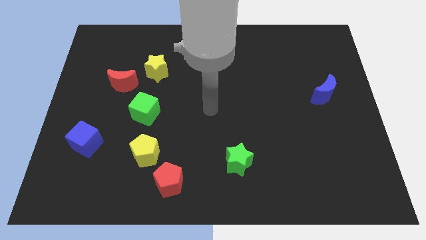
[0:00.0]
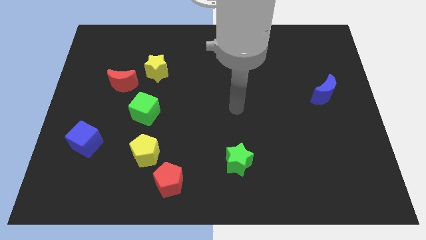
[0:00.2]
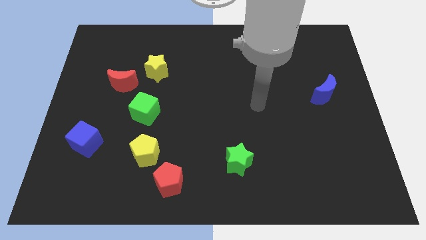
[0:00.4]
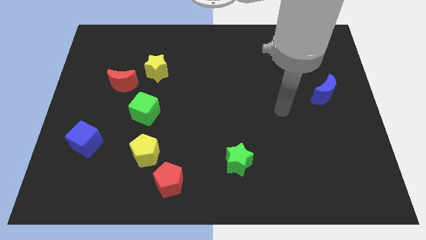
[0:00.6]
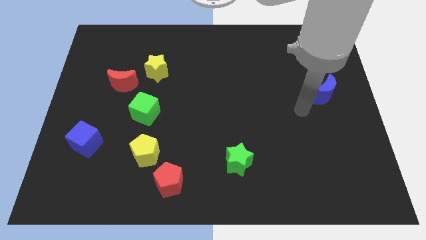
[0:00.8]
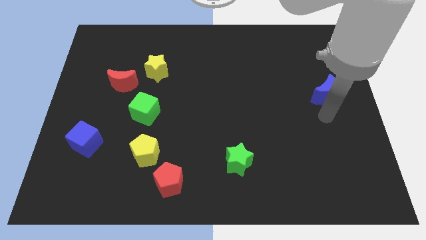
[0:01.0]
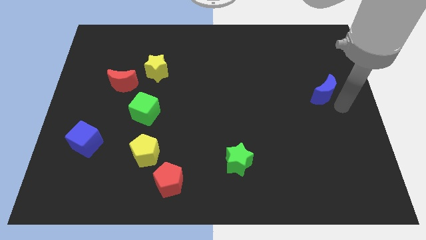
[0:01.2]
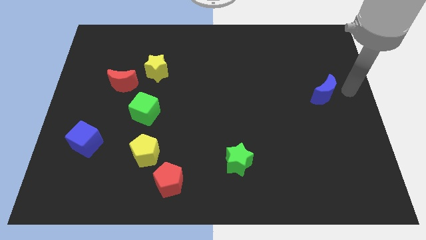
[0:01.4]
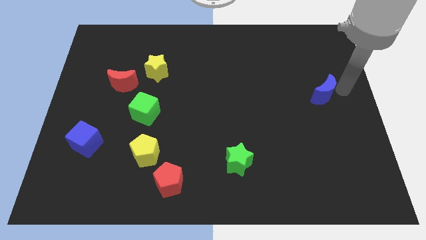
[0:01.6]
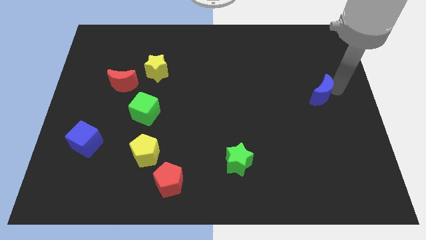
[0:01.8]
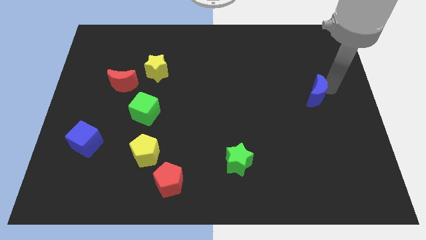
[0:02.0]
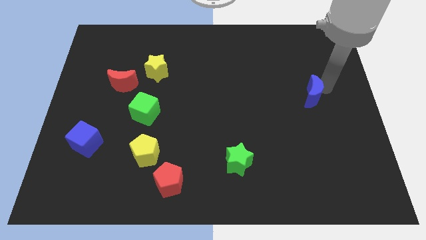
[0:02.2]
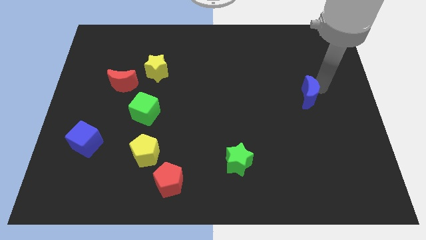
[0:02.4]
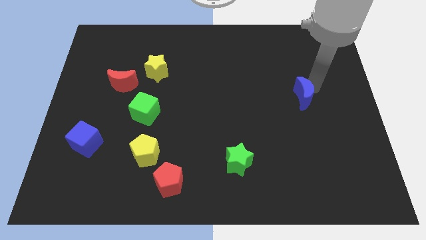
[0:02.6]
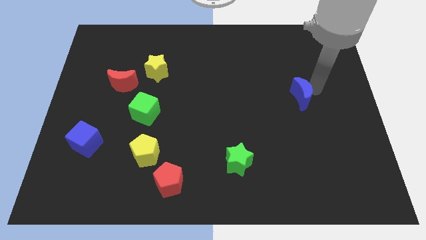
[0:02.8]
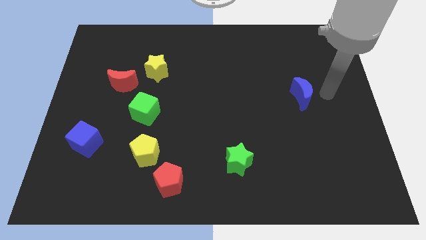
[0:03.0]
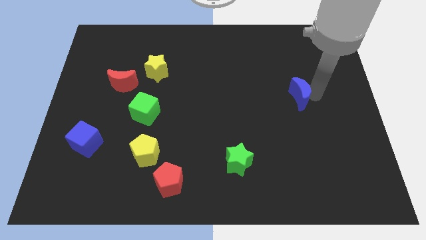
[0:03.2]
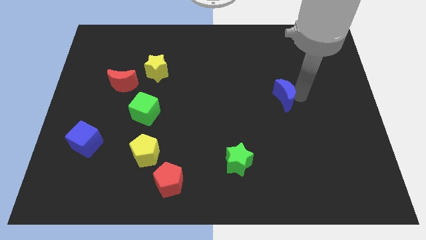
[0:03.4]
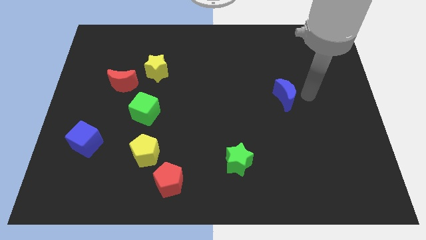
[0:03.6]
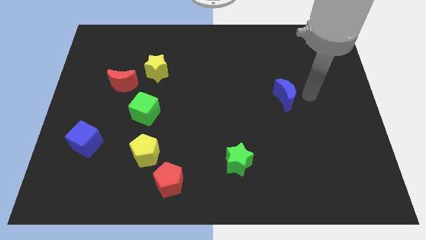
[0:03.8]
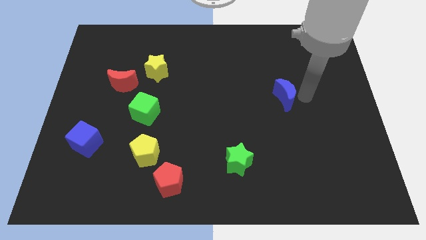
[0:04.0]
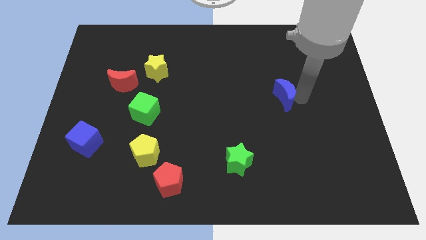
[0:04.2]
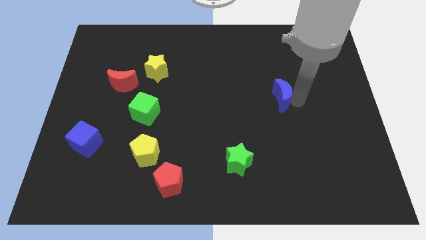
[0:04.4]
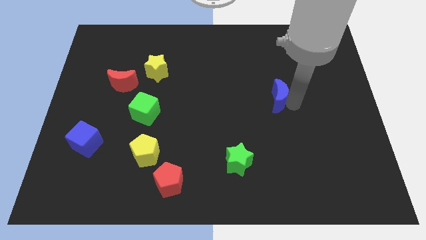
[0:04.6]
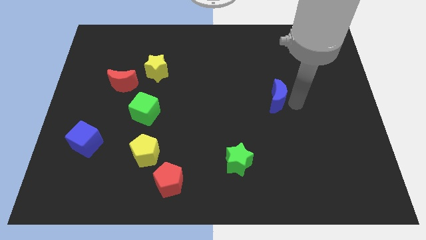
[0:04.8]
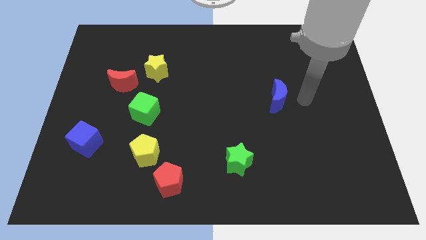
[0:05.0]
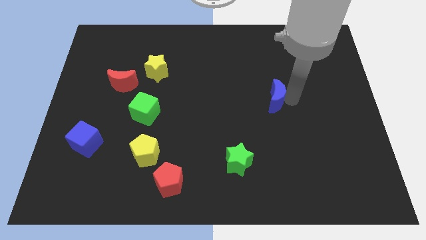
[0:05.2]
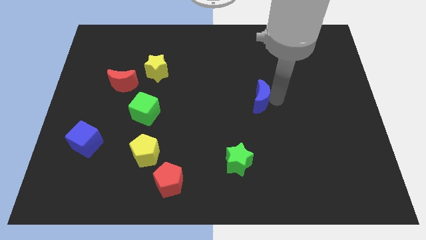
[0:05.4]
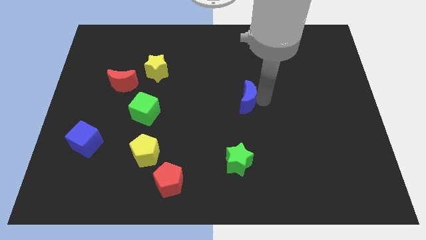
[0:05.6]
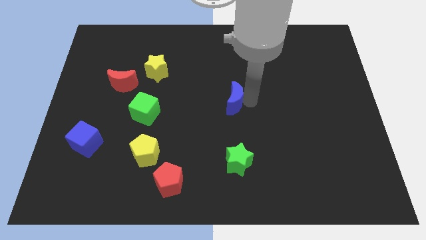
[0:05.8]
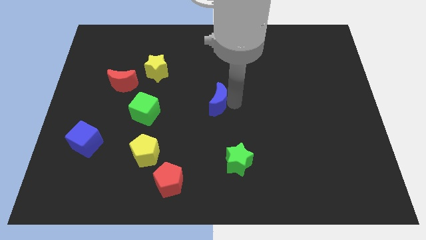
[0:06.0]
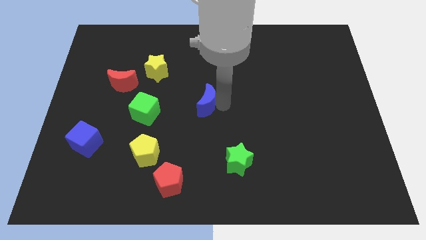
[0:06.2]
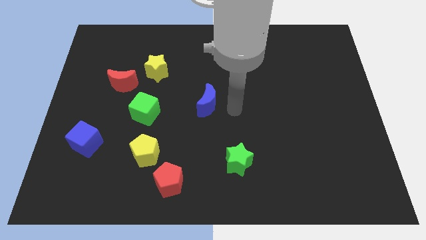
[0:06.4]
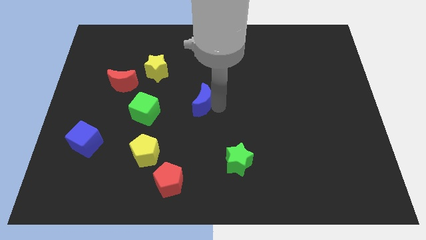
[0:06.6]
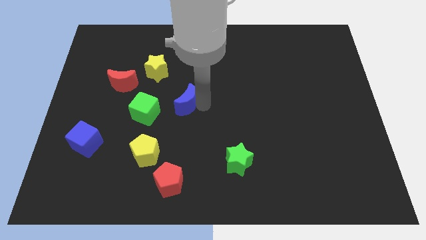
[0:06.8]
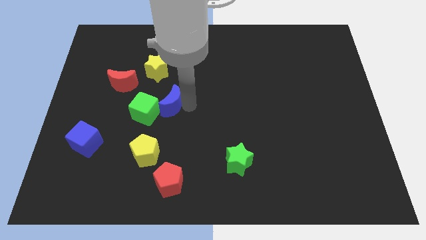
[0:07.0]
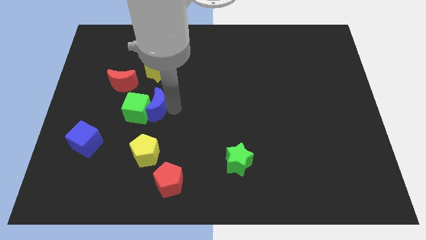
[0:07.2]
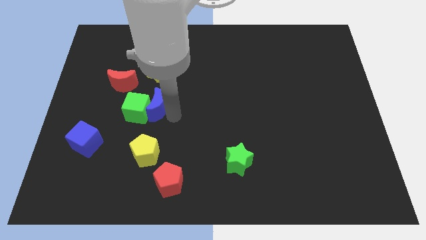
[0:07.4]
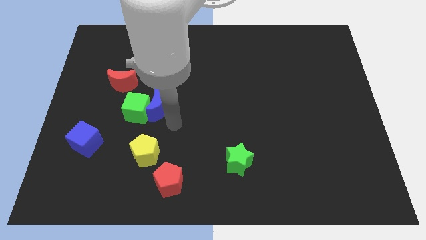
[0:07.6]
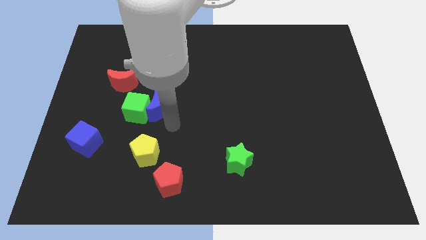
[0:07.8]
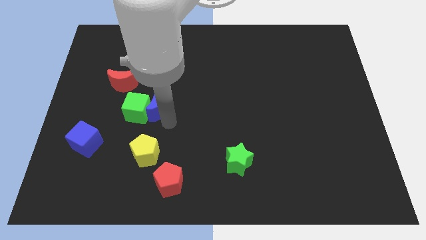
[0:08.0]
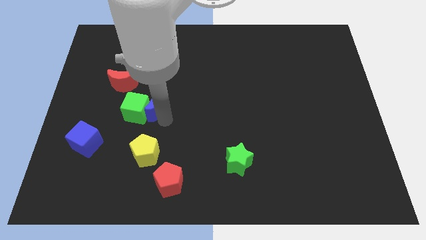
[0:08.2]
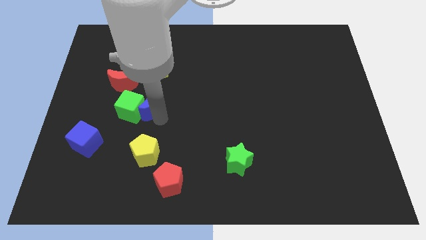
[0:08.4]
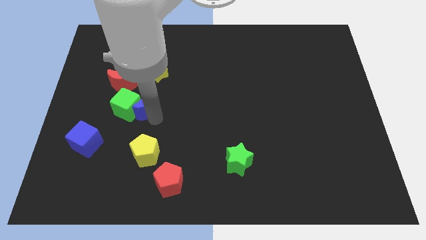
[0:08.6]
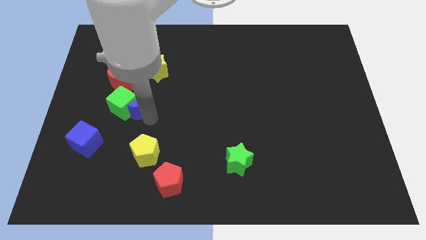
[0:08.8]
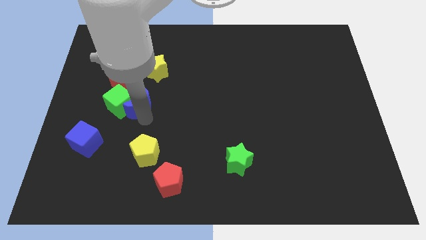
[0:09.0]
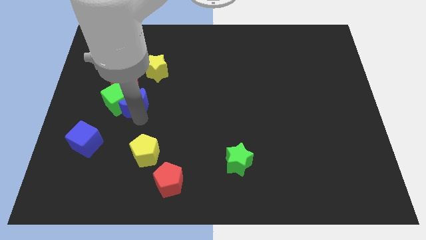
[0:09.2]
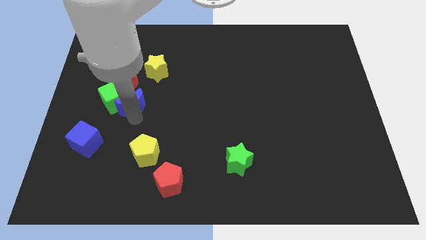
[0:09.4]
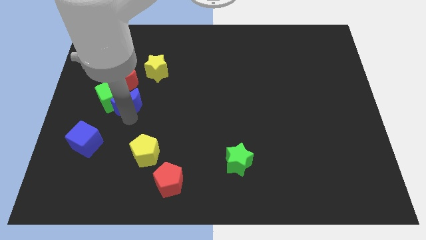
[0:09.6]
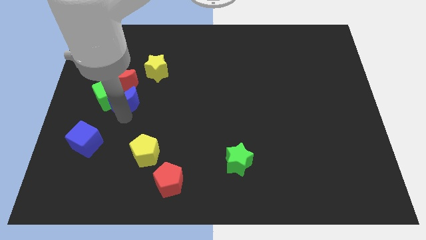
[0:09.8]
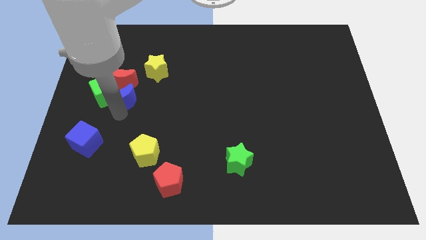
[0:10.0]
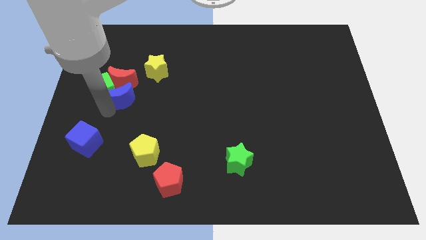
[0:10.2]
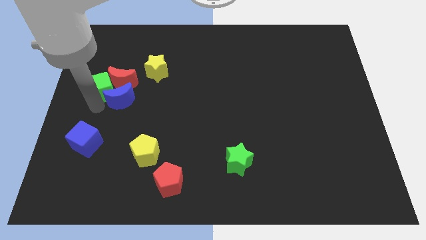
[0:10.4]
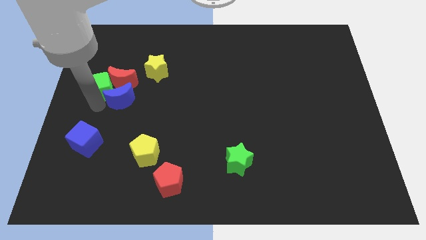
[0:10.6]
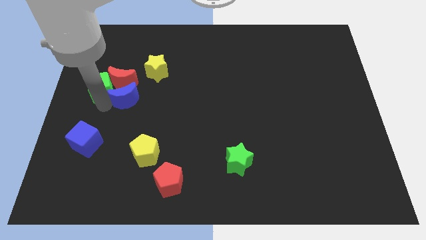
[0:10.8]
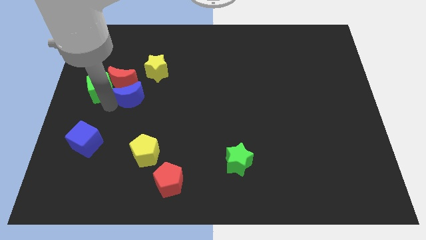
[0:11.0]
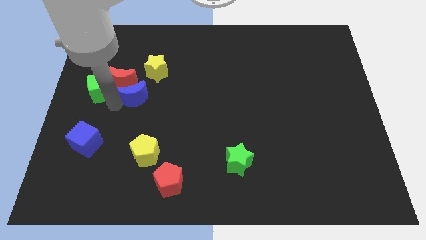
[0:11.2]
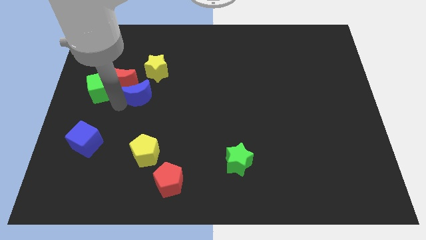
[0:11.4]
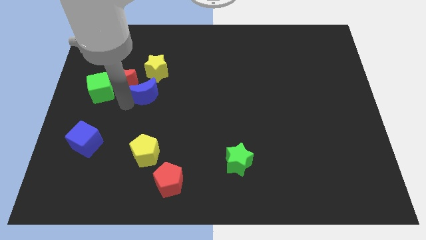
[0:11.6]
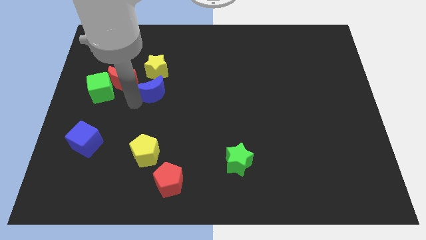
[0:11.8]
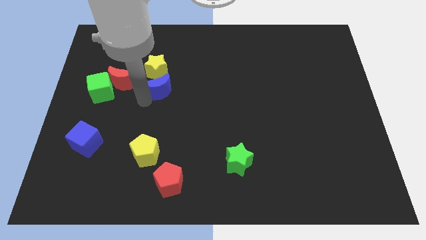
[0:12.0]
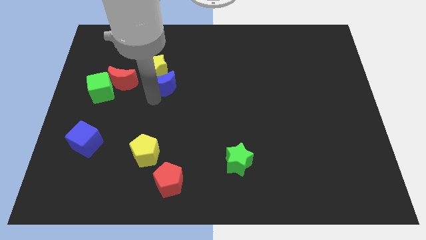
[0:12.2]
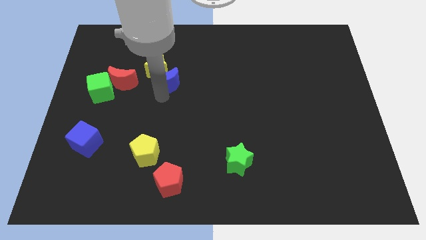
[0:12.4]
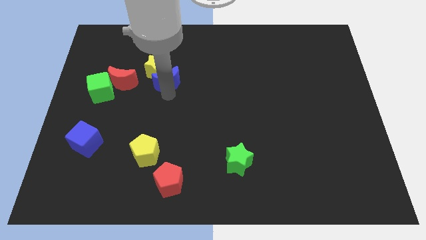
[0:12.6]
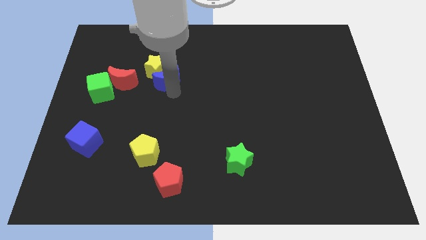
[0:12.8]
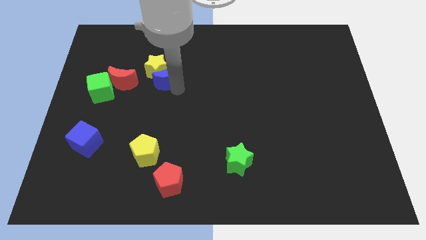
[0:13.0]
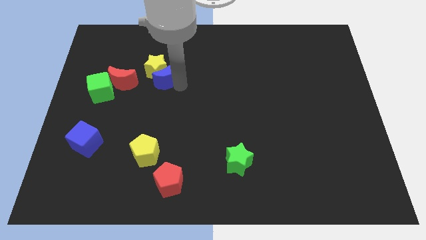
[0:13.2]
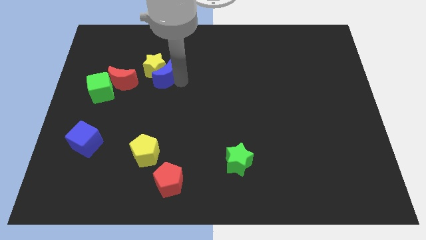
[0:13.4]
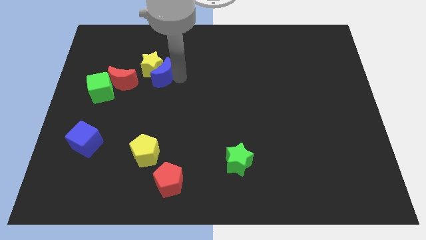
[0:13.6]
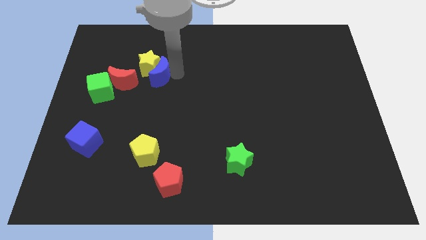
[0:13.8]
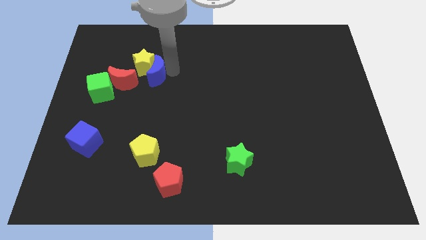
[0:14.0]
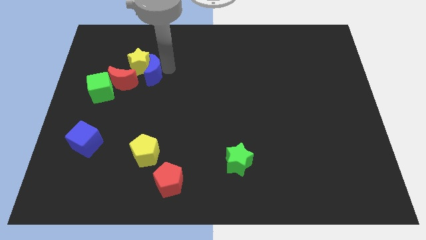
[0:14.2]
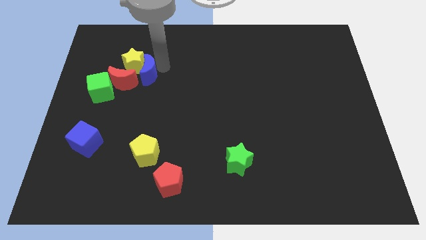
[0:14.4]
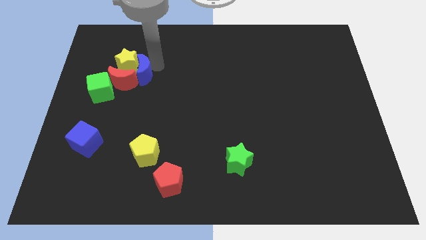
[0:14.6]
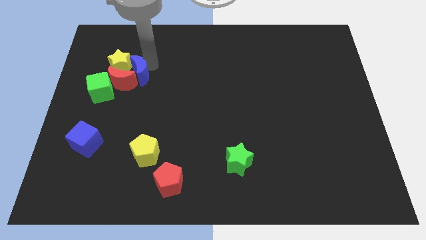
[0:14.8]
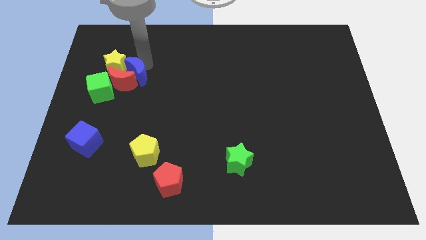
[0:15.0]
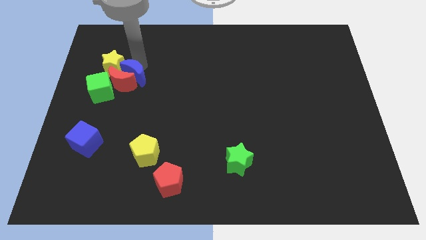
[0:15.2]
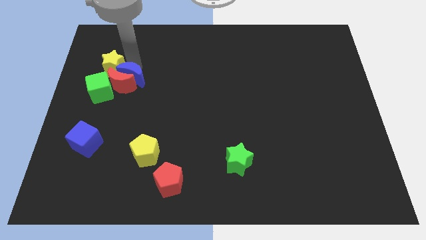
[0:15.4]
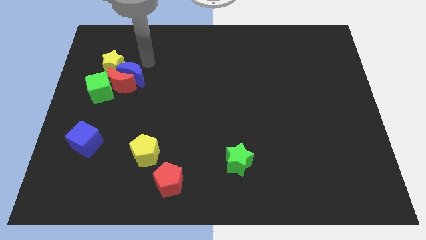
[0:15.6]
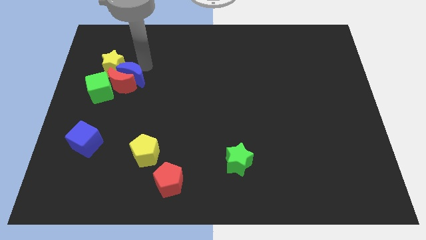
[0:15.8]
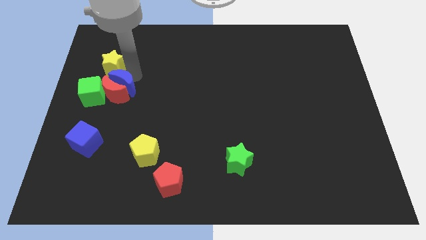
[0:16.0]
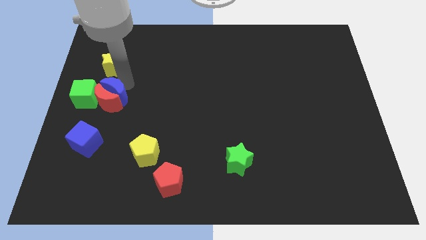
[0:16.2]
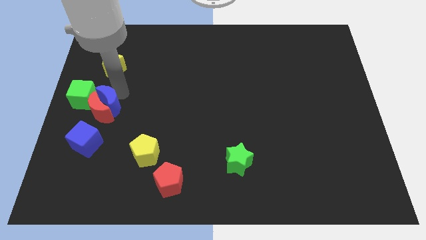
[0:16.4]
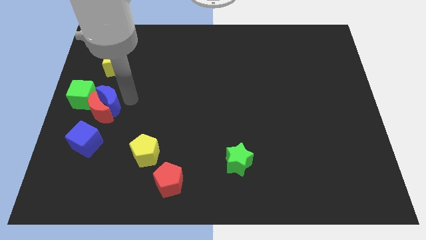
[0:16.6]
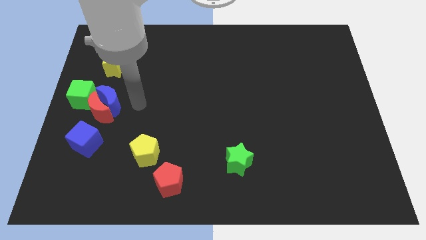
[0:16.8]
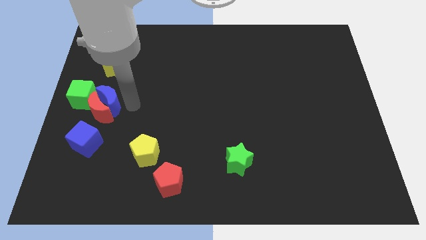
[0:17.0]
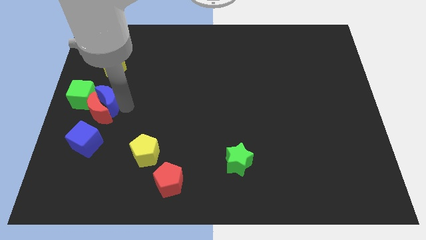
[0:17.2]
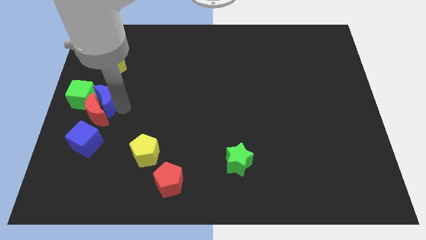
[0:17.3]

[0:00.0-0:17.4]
push the blue moon to the center left
